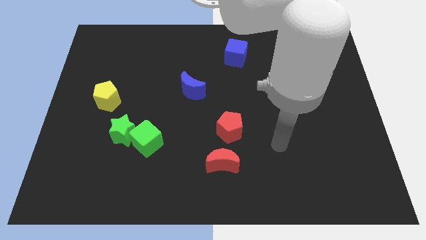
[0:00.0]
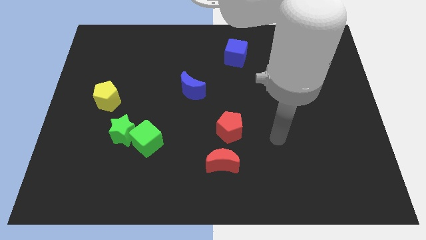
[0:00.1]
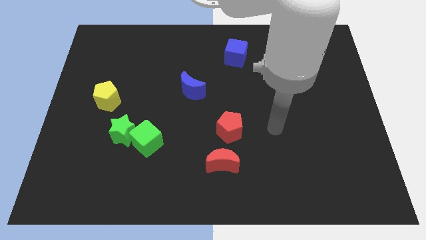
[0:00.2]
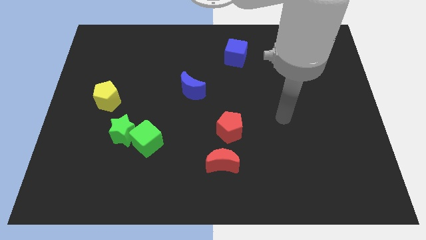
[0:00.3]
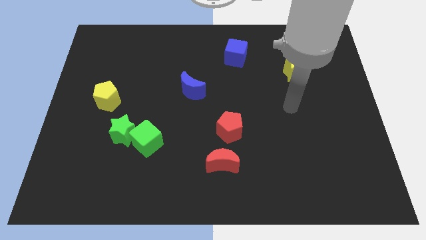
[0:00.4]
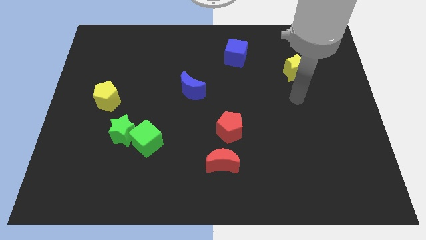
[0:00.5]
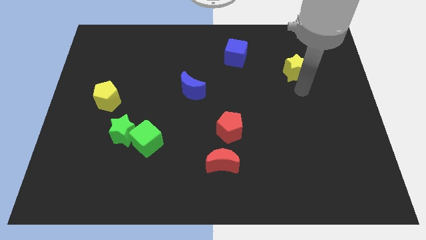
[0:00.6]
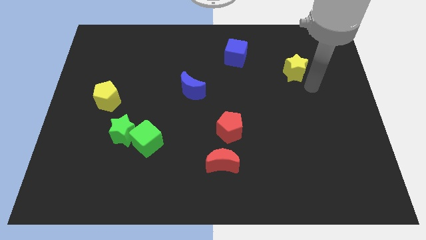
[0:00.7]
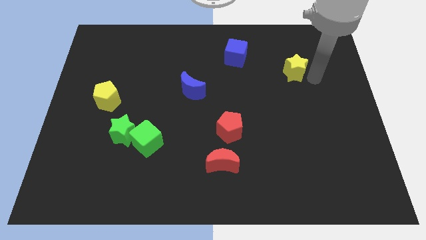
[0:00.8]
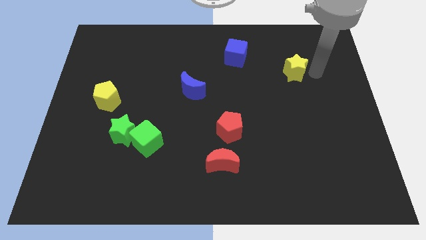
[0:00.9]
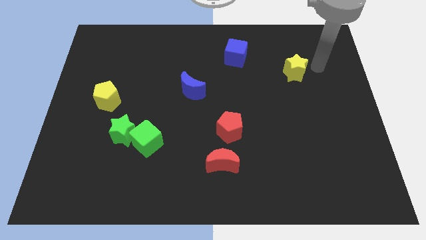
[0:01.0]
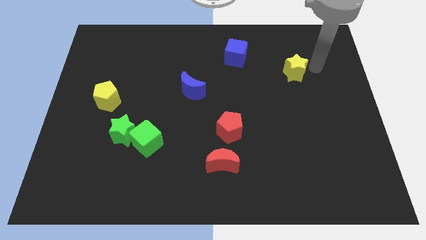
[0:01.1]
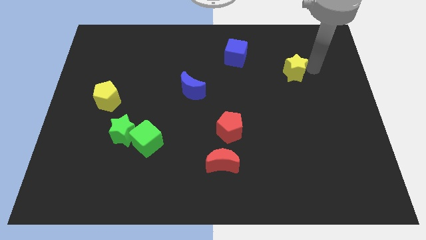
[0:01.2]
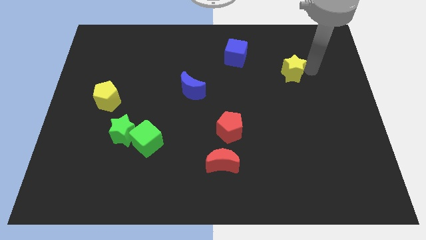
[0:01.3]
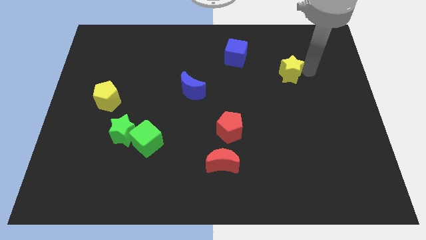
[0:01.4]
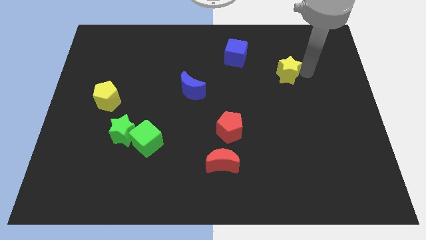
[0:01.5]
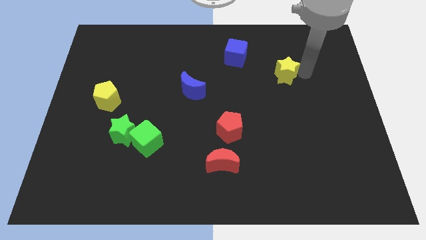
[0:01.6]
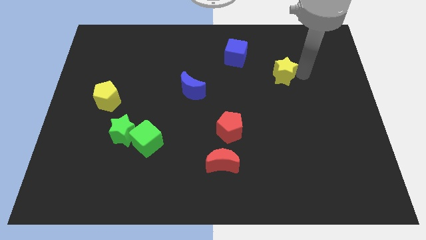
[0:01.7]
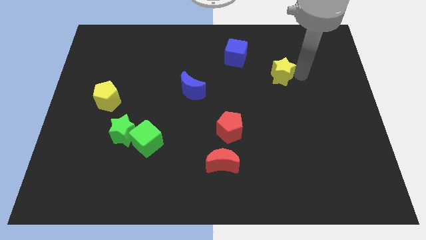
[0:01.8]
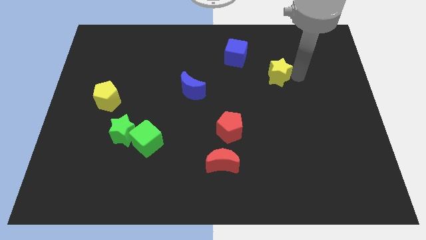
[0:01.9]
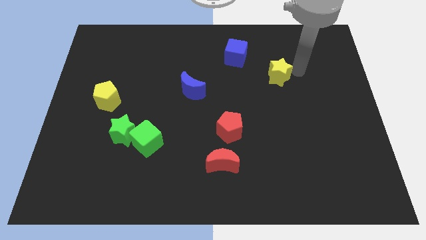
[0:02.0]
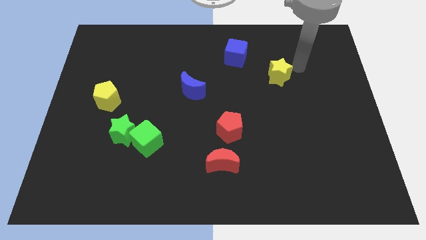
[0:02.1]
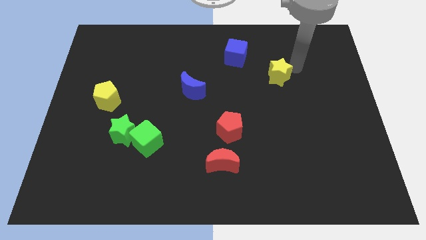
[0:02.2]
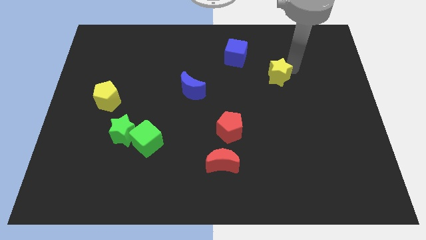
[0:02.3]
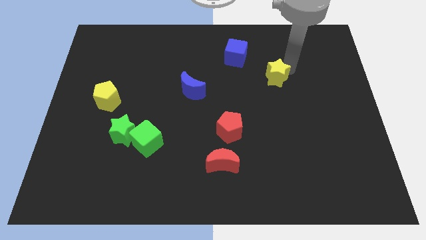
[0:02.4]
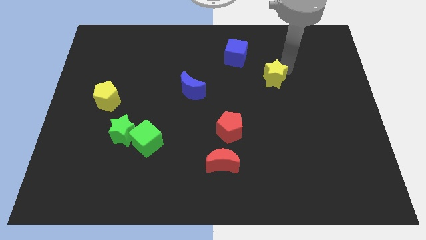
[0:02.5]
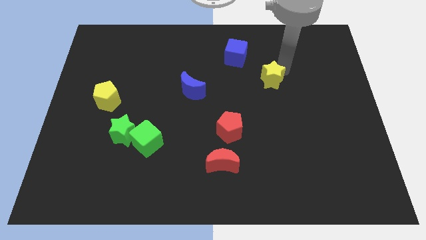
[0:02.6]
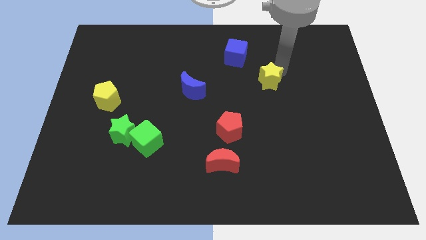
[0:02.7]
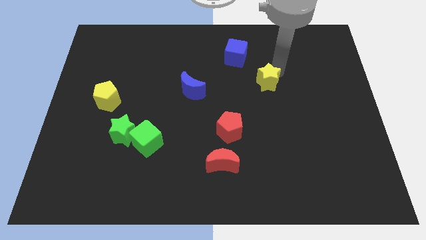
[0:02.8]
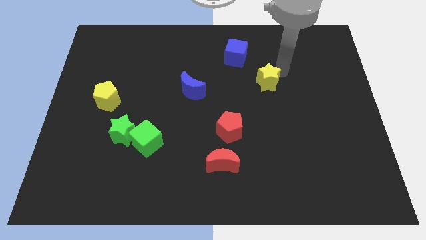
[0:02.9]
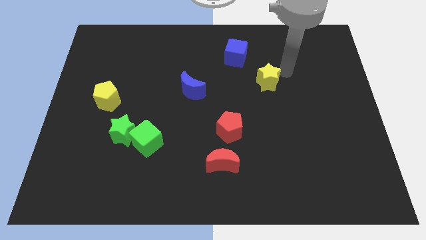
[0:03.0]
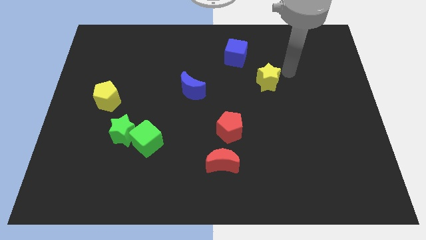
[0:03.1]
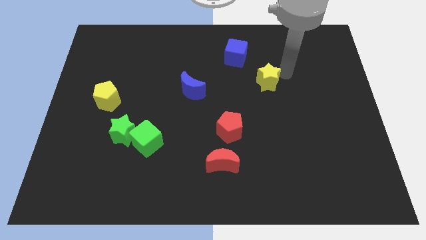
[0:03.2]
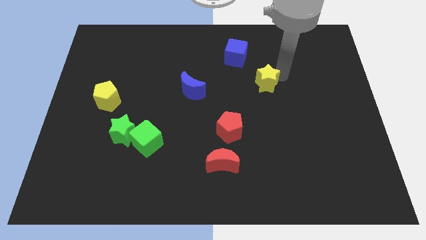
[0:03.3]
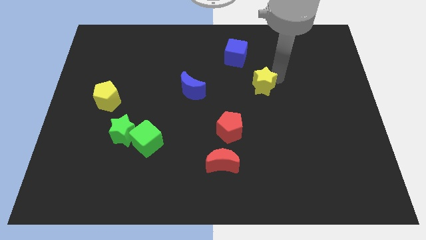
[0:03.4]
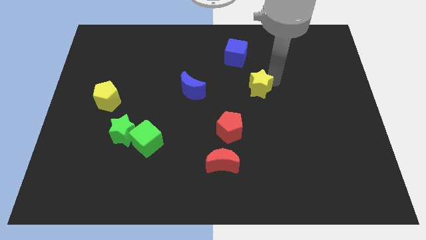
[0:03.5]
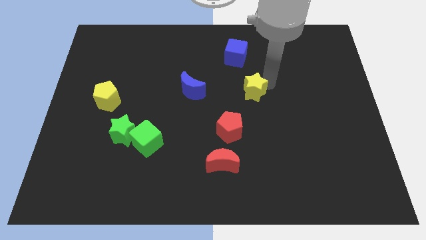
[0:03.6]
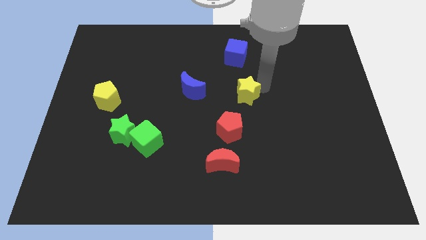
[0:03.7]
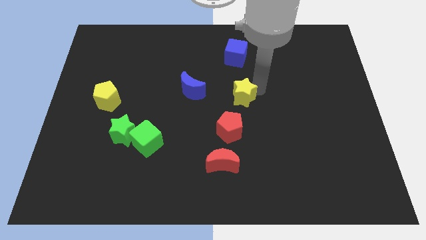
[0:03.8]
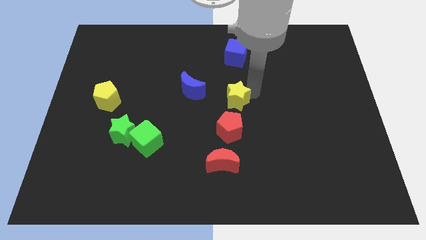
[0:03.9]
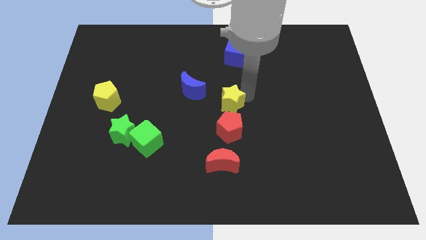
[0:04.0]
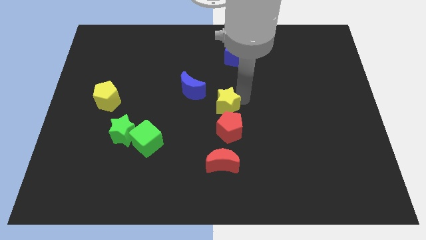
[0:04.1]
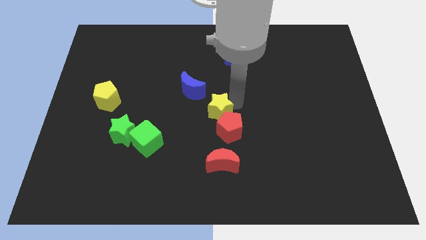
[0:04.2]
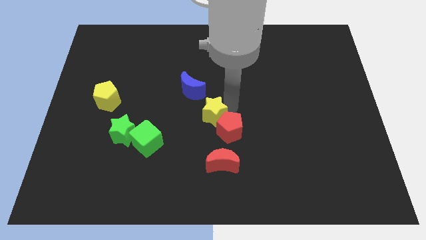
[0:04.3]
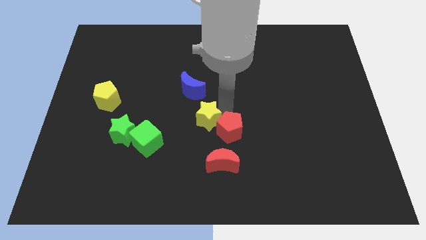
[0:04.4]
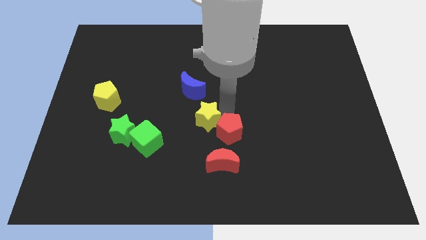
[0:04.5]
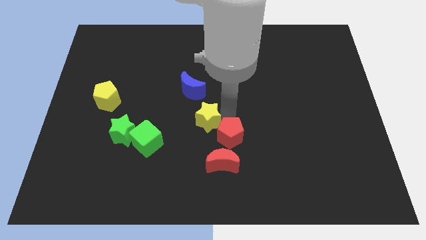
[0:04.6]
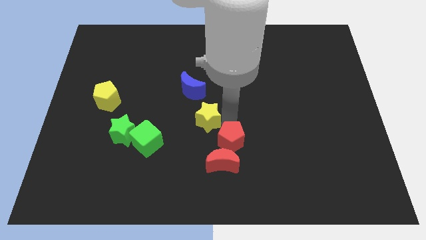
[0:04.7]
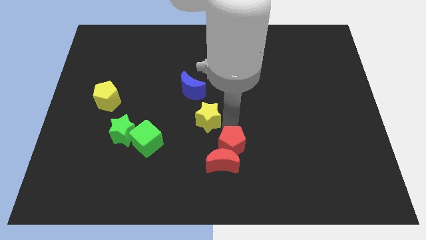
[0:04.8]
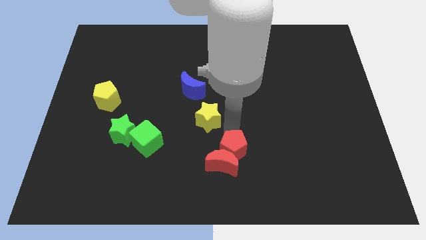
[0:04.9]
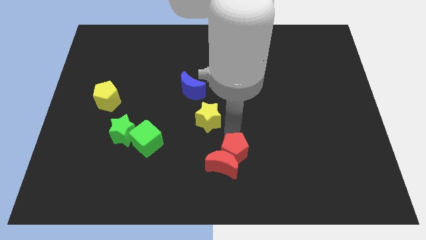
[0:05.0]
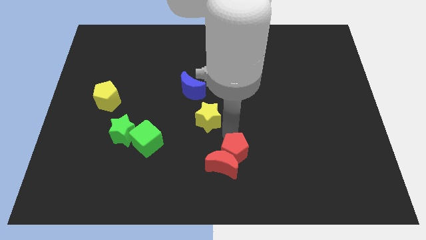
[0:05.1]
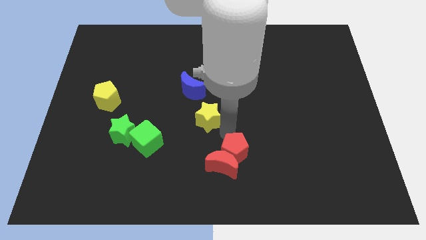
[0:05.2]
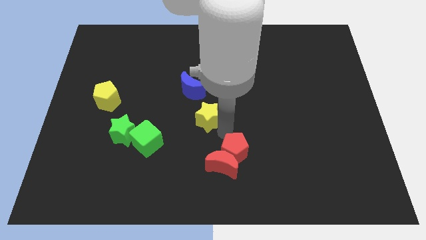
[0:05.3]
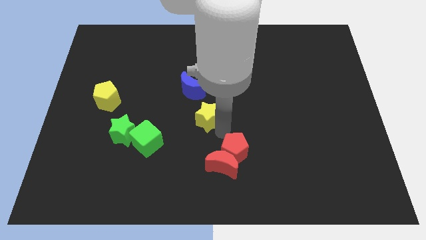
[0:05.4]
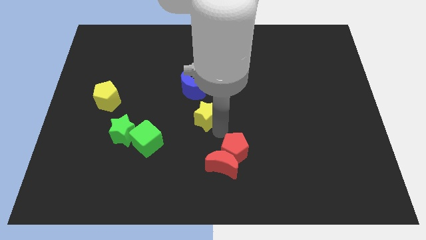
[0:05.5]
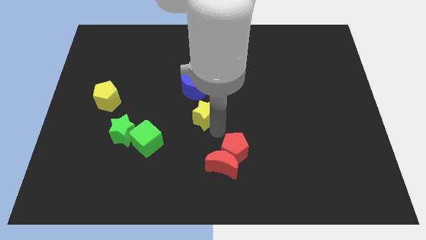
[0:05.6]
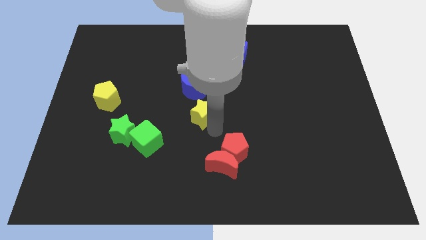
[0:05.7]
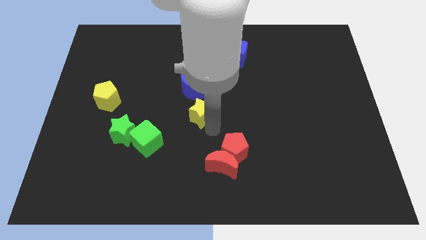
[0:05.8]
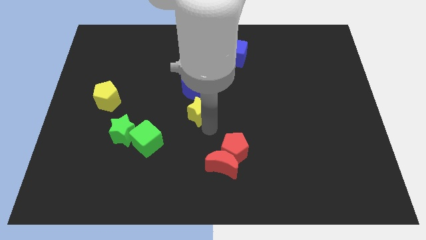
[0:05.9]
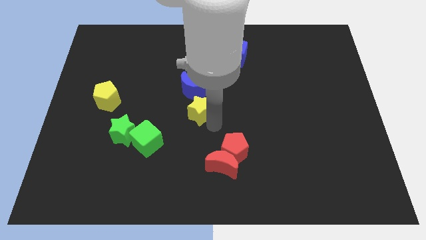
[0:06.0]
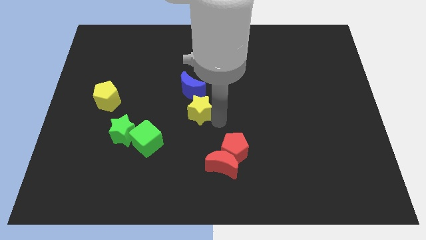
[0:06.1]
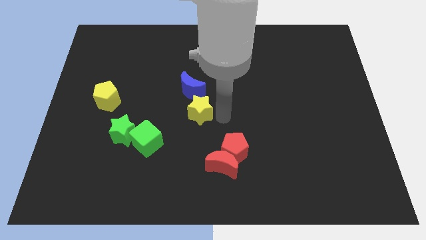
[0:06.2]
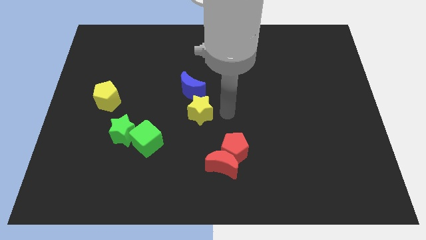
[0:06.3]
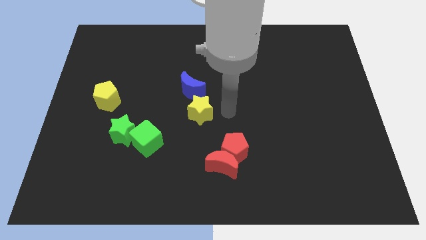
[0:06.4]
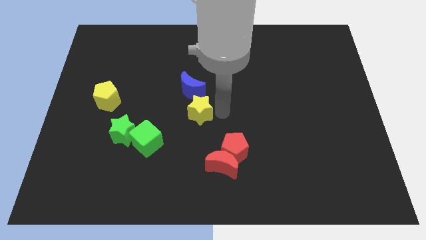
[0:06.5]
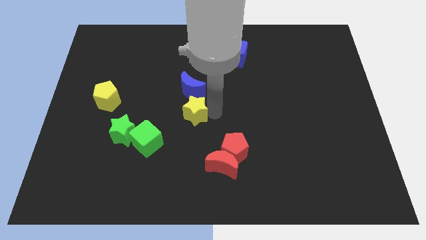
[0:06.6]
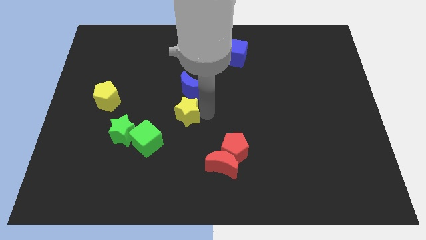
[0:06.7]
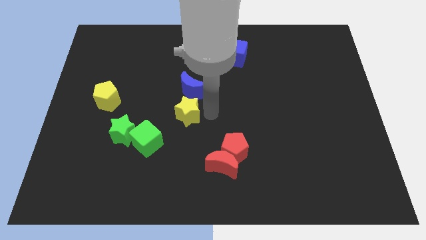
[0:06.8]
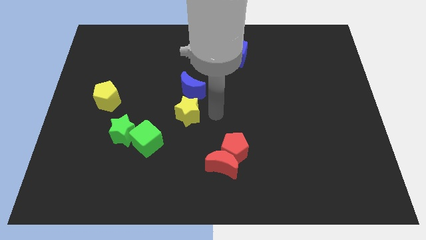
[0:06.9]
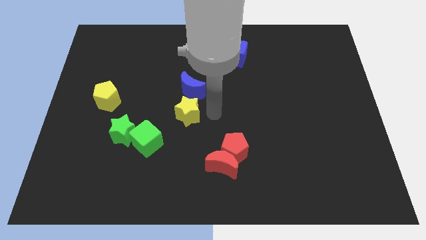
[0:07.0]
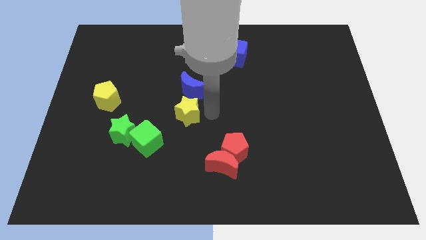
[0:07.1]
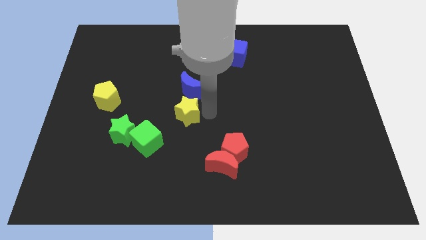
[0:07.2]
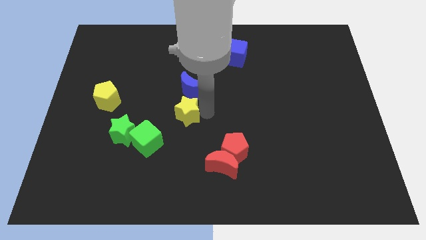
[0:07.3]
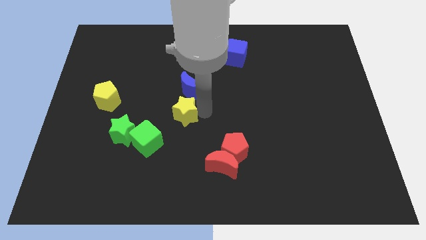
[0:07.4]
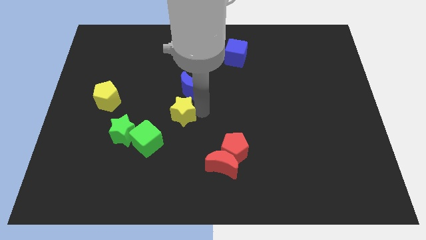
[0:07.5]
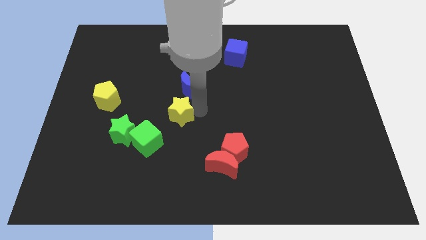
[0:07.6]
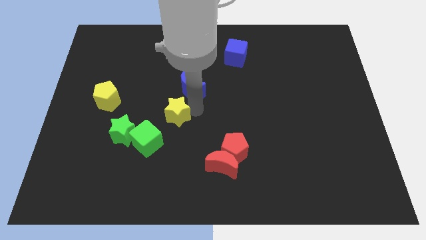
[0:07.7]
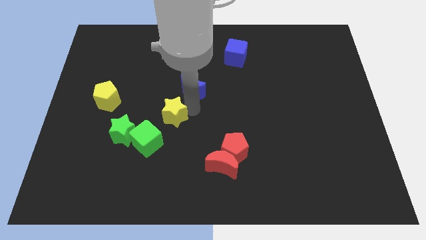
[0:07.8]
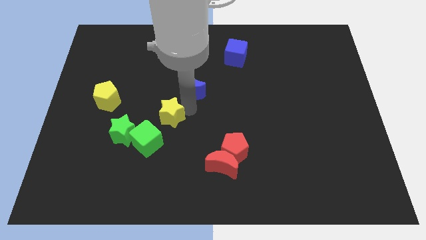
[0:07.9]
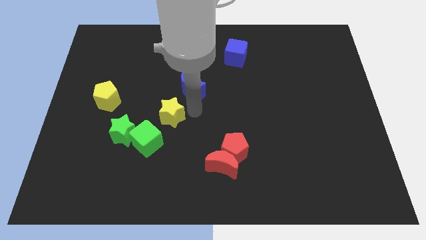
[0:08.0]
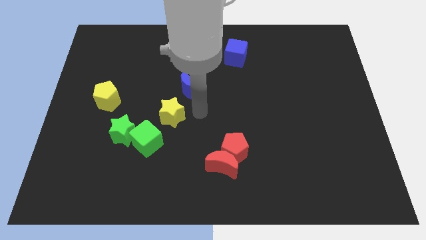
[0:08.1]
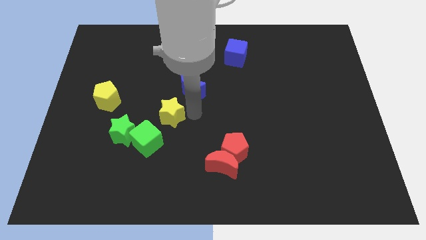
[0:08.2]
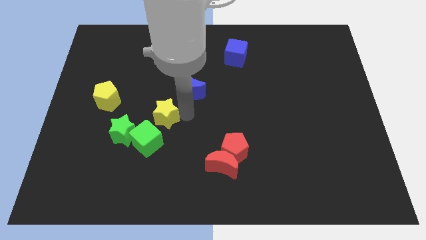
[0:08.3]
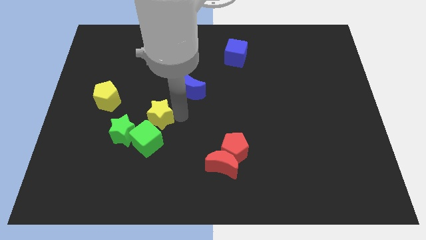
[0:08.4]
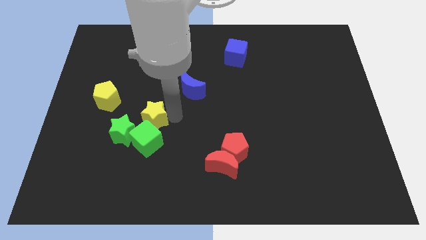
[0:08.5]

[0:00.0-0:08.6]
move the yellow star to the top left side of the green cube
